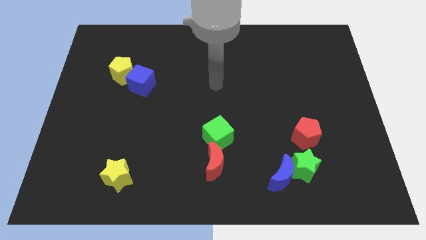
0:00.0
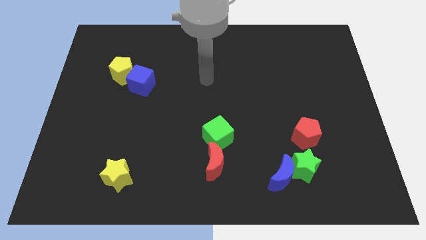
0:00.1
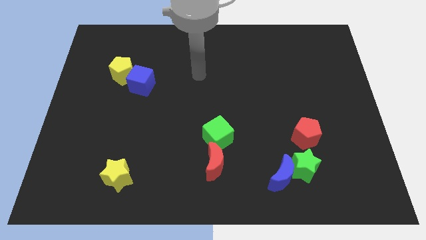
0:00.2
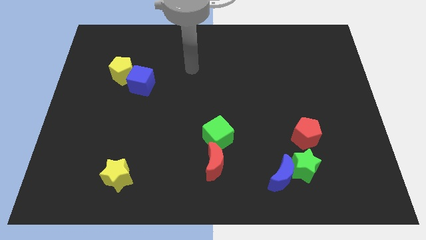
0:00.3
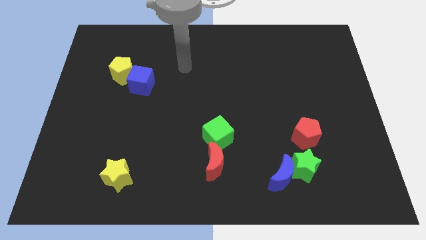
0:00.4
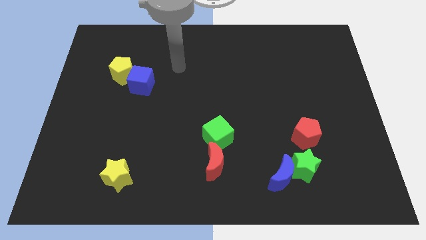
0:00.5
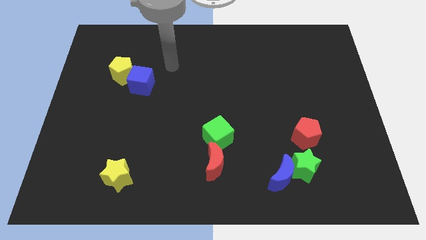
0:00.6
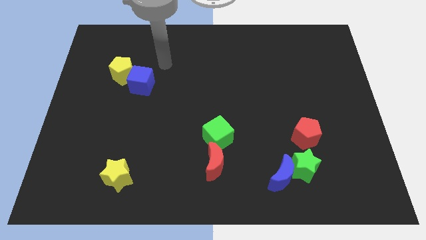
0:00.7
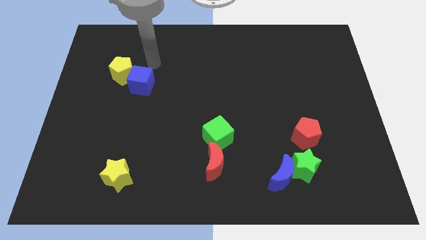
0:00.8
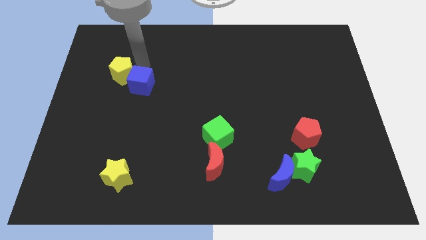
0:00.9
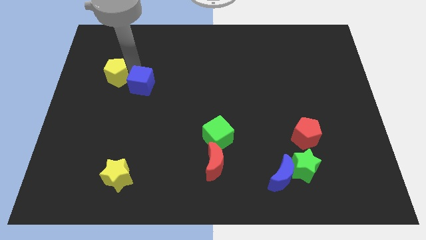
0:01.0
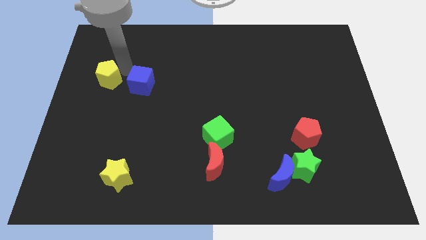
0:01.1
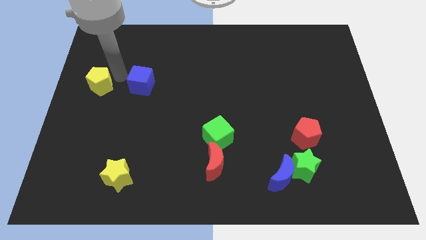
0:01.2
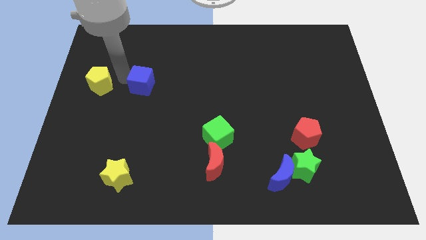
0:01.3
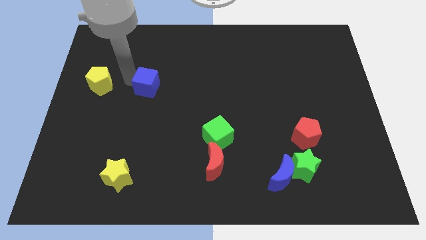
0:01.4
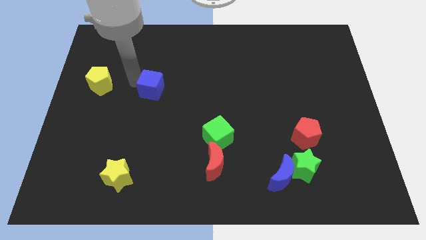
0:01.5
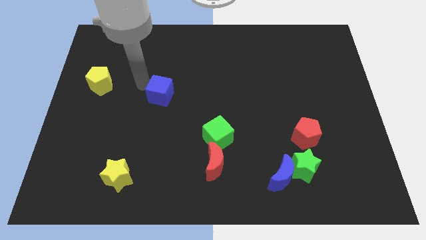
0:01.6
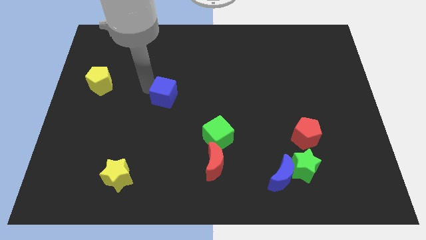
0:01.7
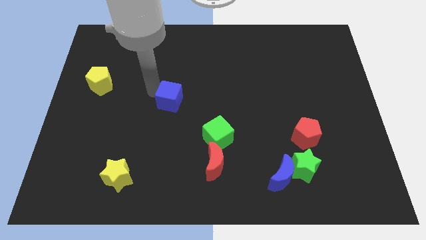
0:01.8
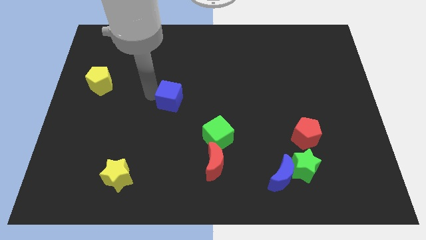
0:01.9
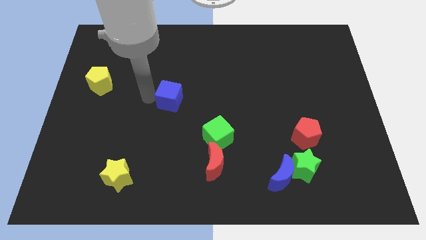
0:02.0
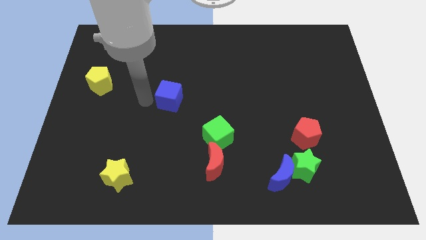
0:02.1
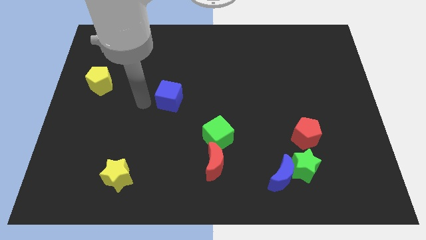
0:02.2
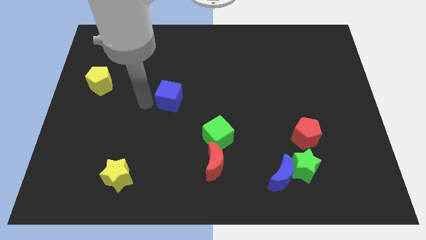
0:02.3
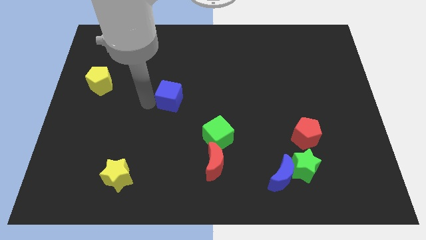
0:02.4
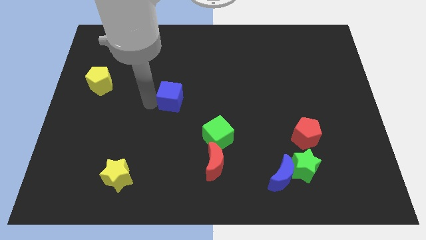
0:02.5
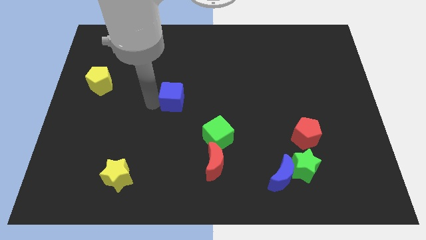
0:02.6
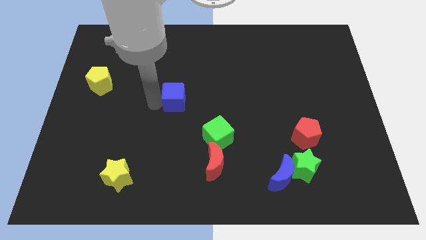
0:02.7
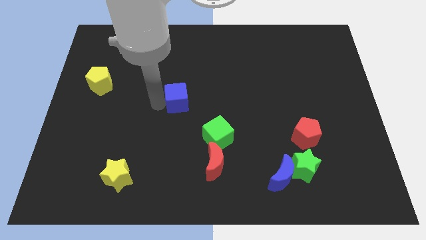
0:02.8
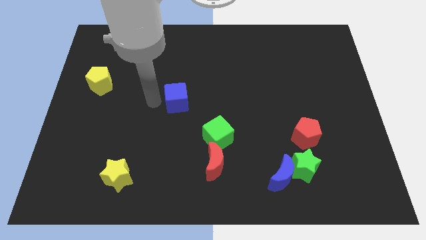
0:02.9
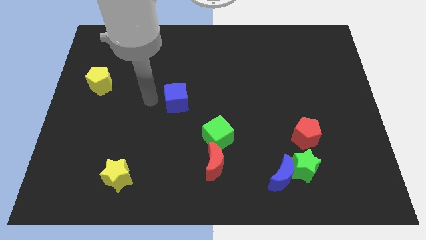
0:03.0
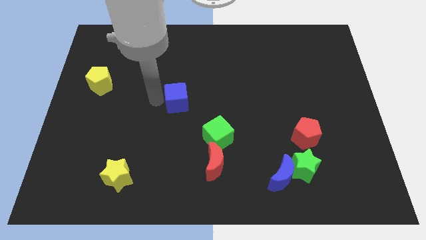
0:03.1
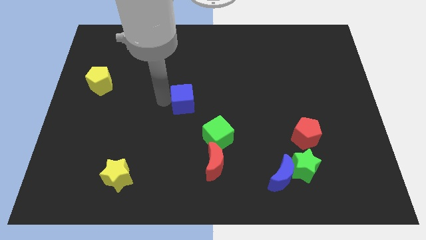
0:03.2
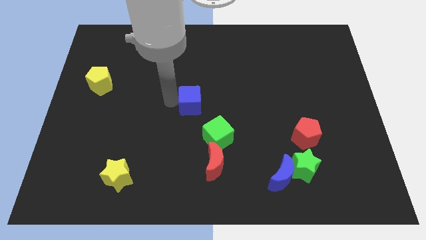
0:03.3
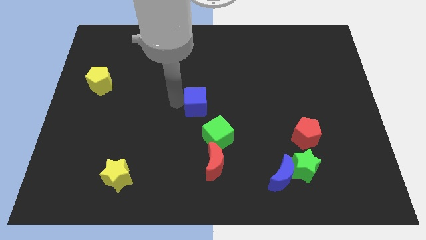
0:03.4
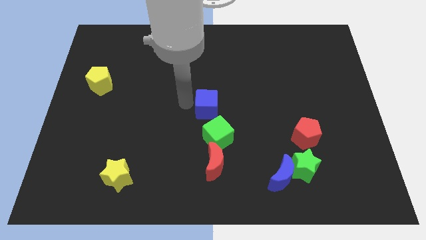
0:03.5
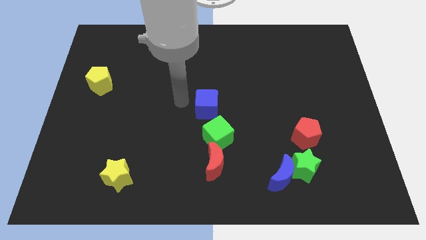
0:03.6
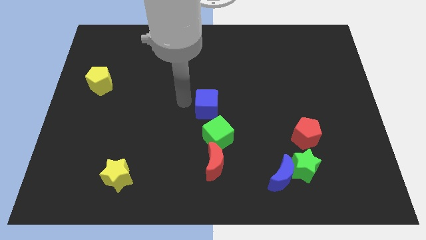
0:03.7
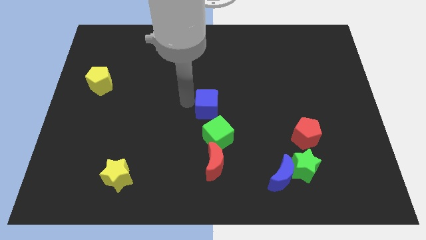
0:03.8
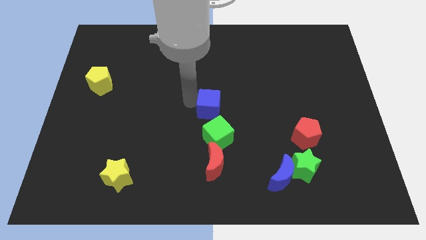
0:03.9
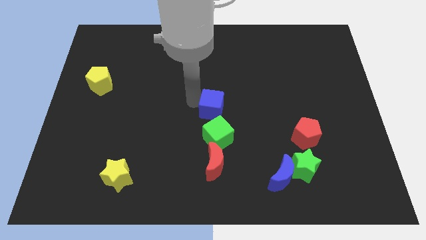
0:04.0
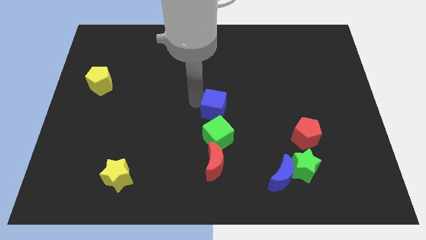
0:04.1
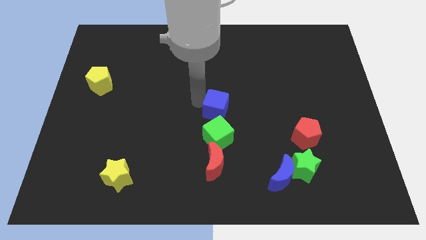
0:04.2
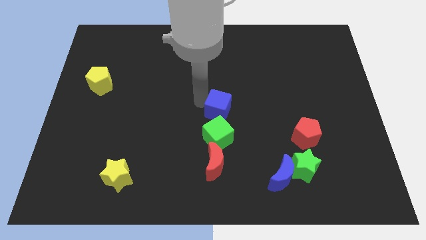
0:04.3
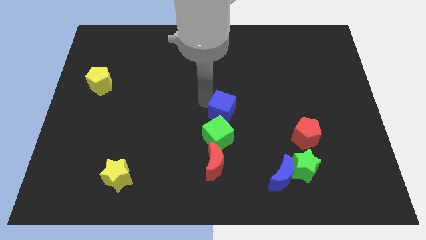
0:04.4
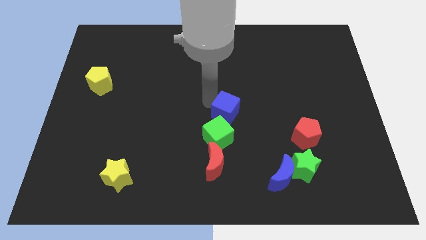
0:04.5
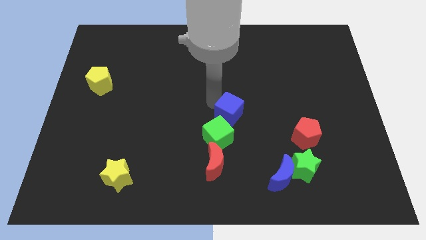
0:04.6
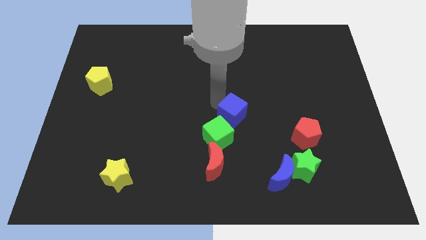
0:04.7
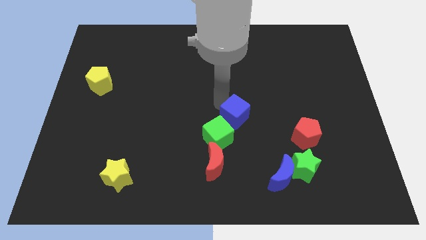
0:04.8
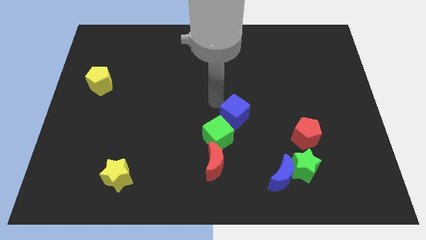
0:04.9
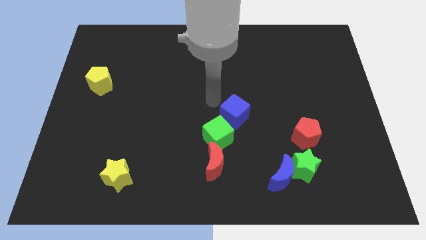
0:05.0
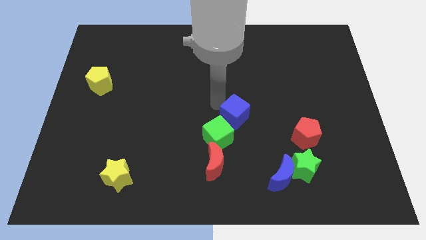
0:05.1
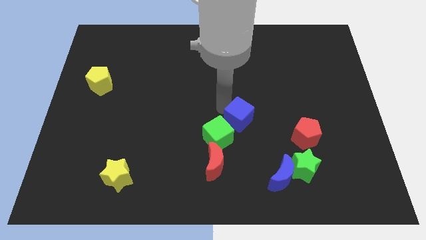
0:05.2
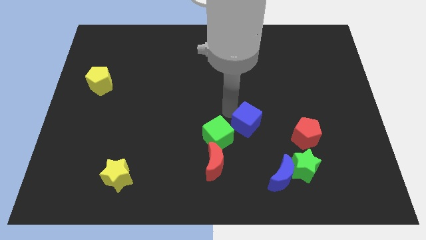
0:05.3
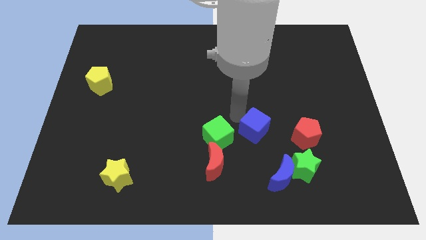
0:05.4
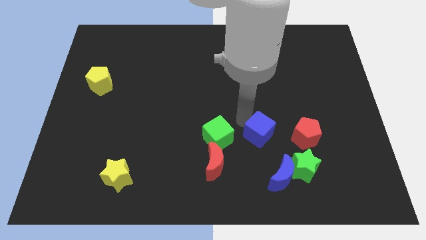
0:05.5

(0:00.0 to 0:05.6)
slide the blue cube to the top left of the green star

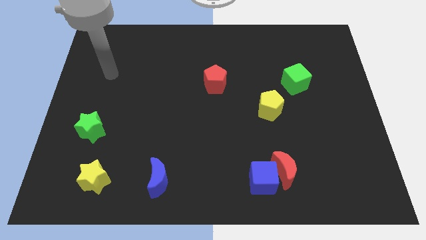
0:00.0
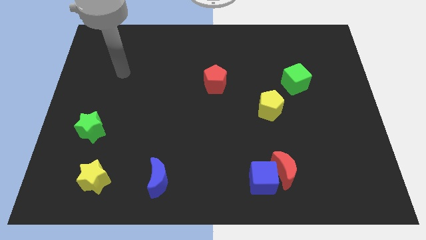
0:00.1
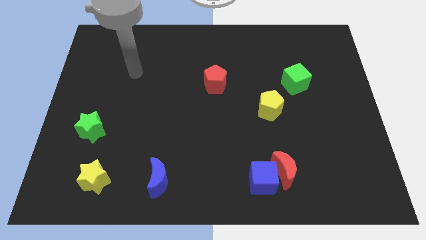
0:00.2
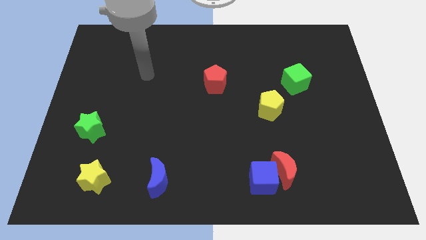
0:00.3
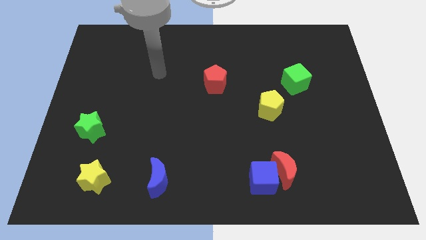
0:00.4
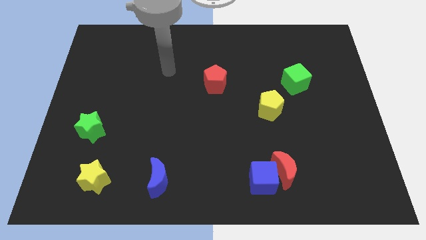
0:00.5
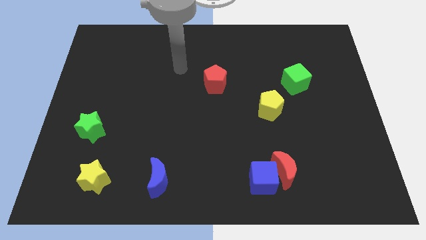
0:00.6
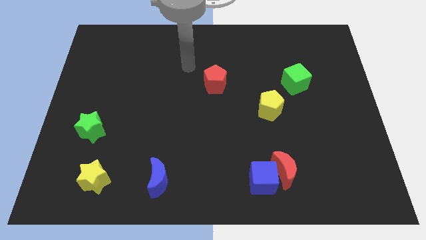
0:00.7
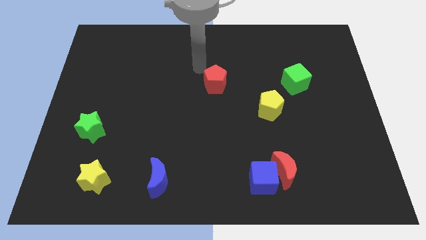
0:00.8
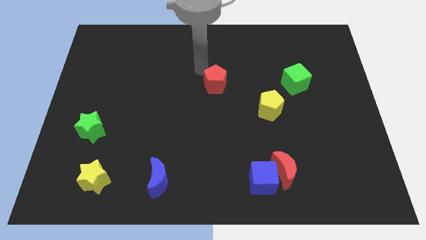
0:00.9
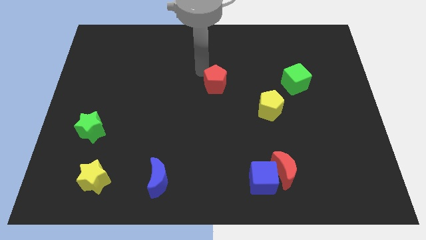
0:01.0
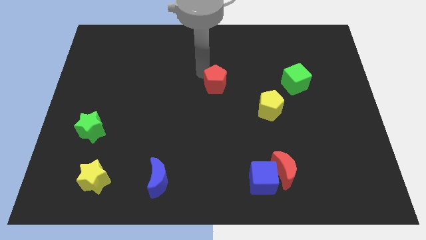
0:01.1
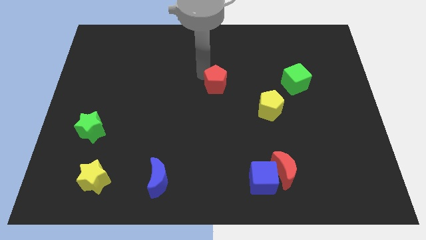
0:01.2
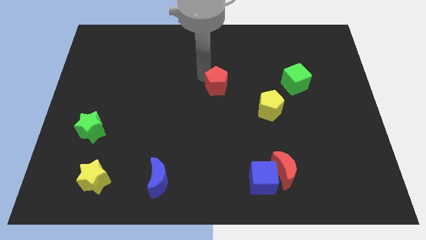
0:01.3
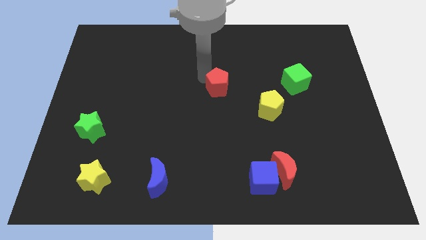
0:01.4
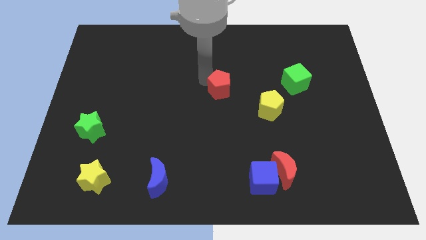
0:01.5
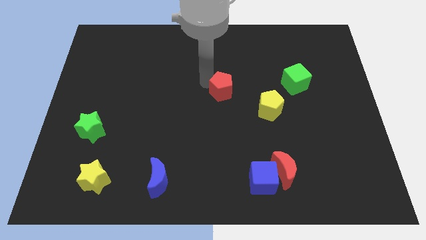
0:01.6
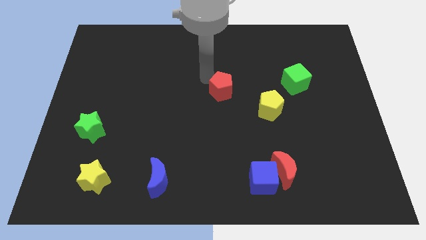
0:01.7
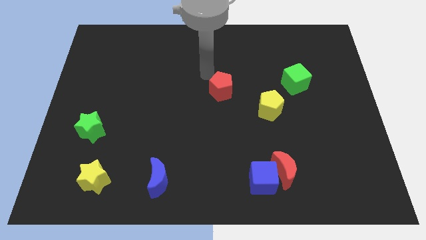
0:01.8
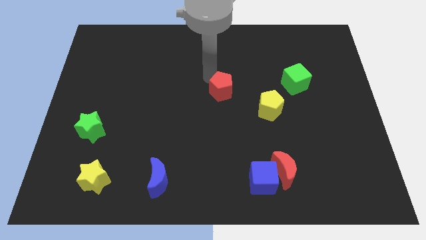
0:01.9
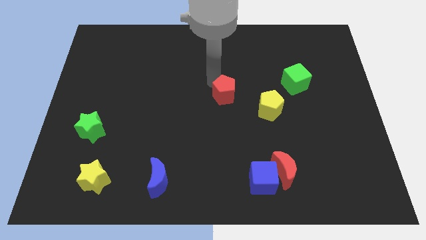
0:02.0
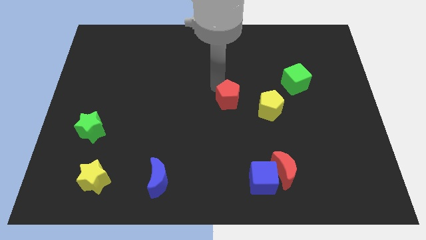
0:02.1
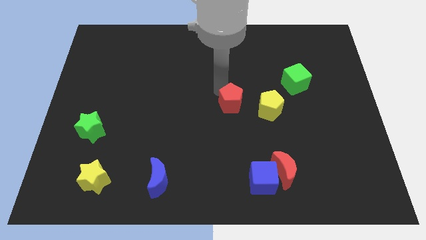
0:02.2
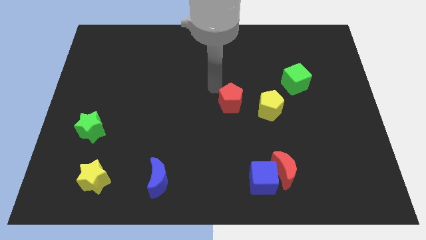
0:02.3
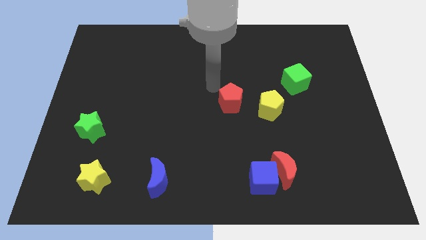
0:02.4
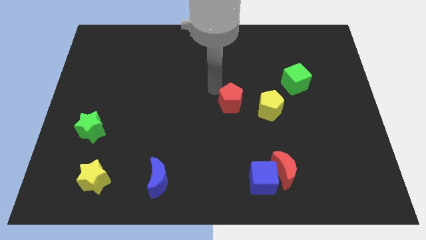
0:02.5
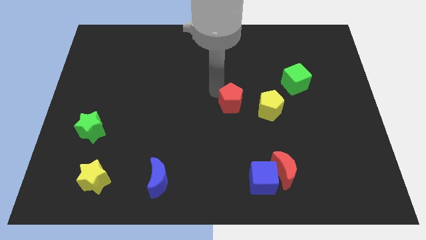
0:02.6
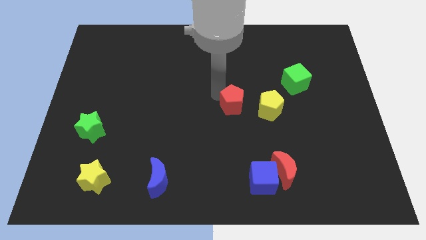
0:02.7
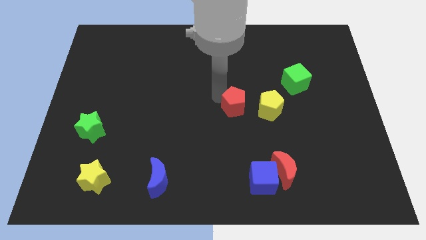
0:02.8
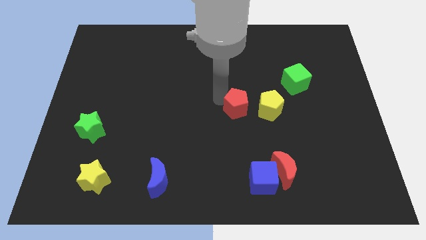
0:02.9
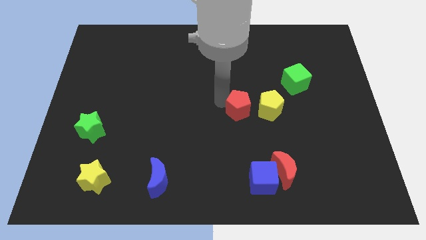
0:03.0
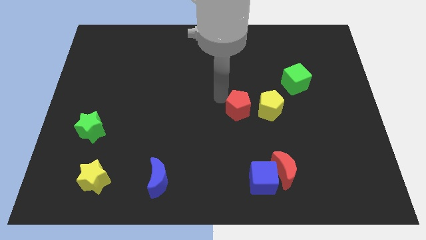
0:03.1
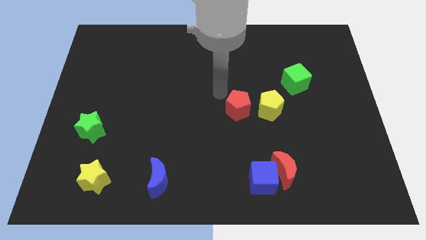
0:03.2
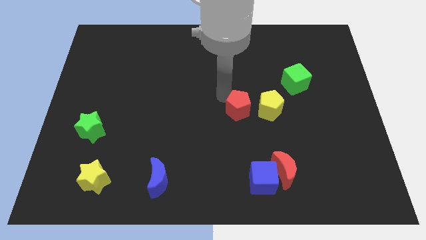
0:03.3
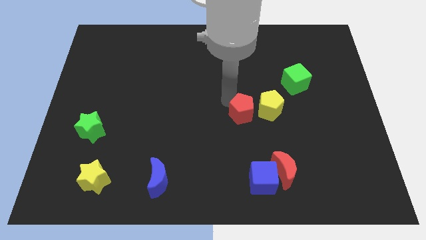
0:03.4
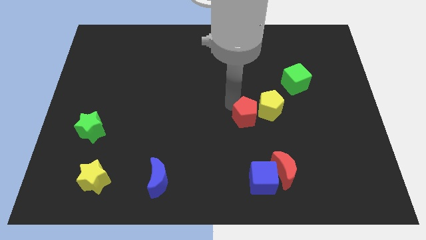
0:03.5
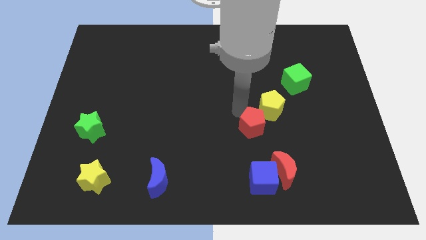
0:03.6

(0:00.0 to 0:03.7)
push the red pentagon to the bottom side of the yellow pentagon
